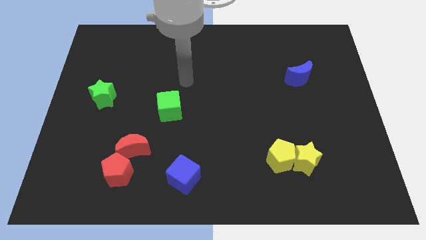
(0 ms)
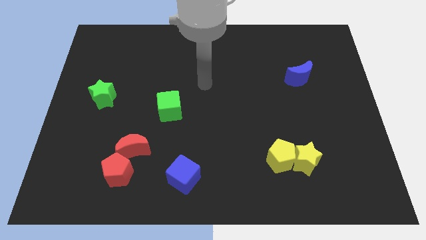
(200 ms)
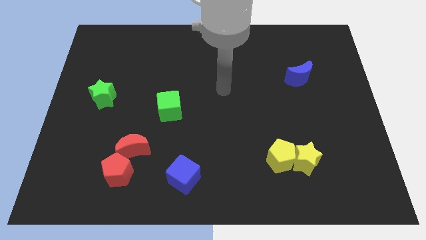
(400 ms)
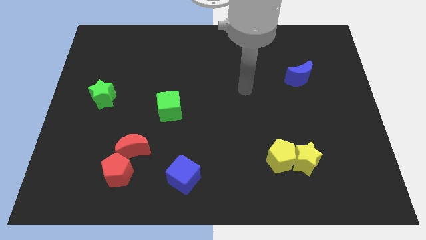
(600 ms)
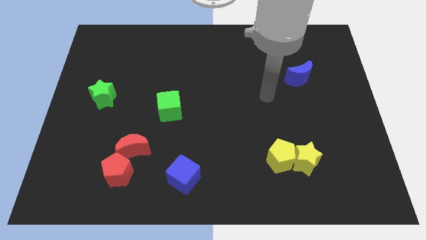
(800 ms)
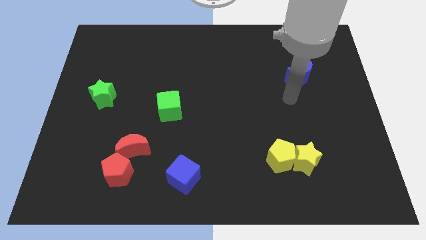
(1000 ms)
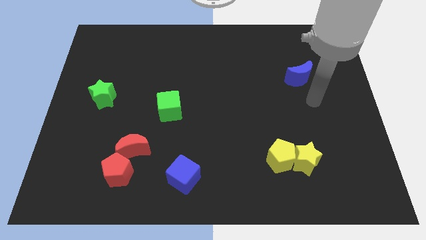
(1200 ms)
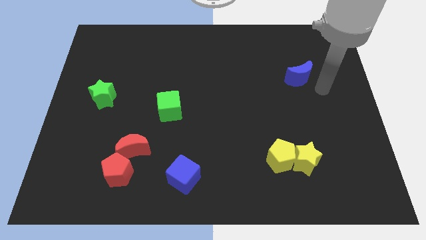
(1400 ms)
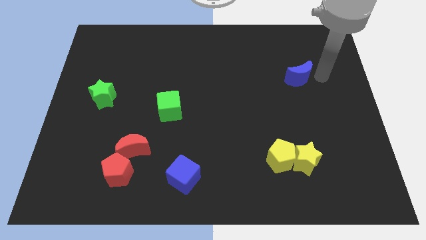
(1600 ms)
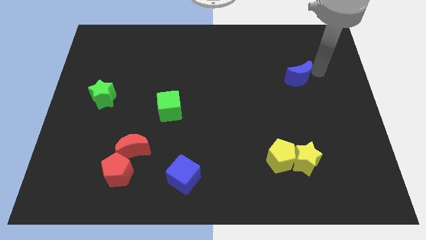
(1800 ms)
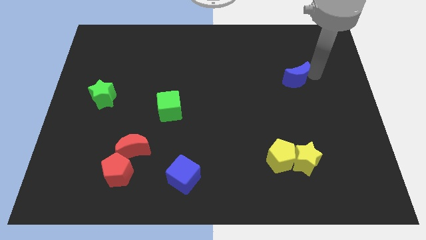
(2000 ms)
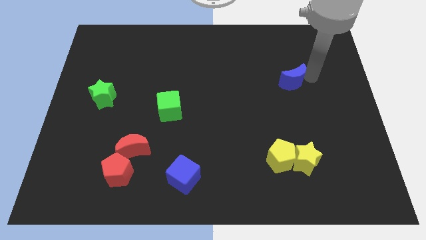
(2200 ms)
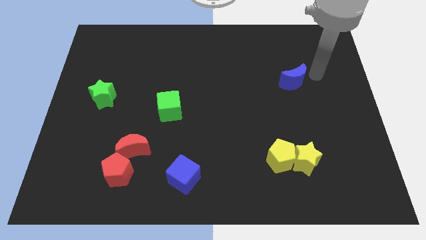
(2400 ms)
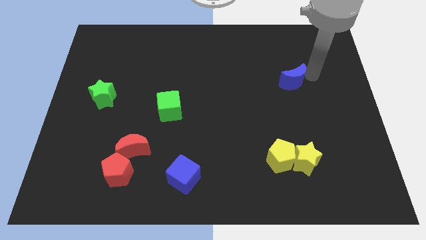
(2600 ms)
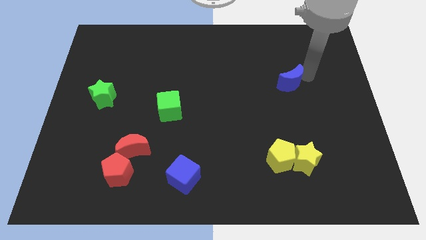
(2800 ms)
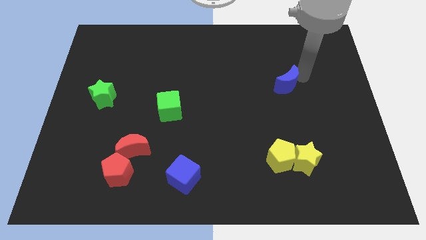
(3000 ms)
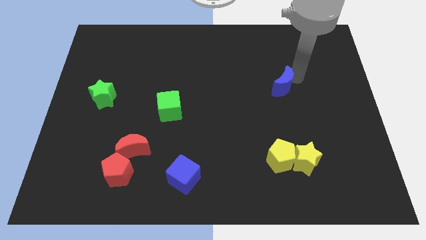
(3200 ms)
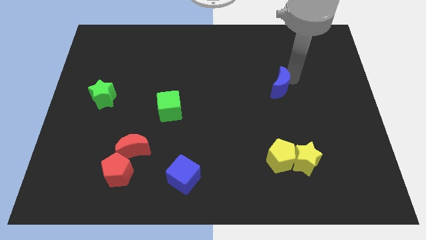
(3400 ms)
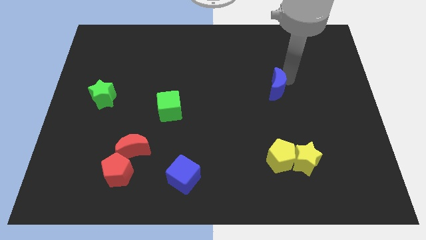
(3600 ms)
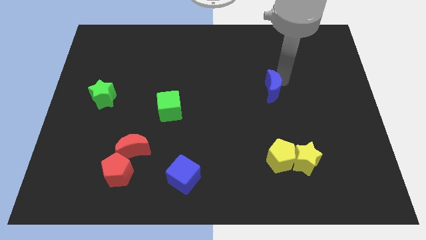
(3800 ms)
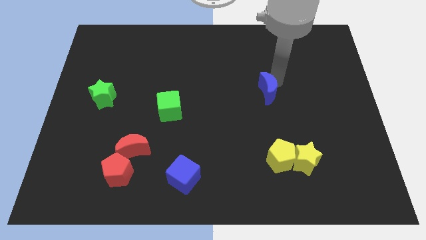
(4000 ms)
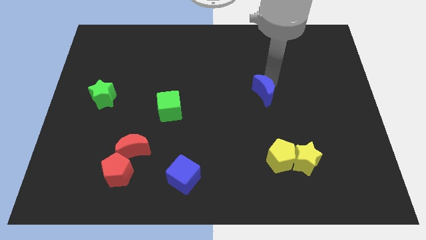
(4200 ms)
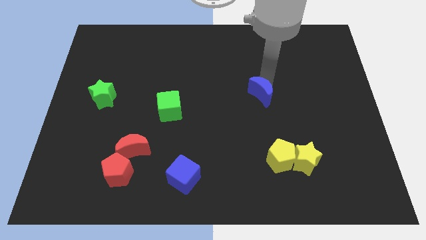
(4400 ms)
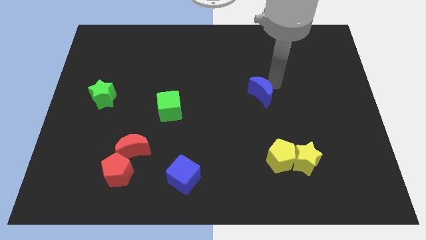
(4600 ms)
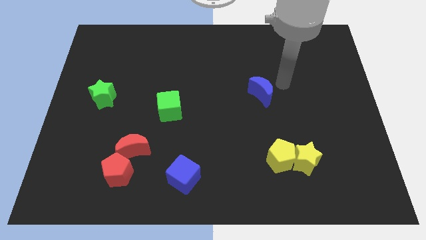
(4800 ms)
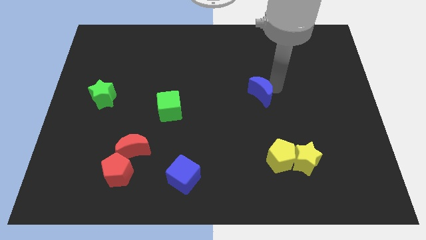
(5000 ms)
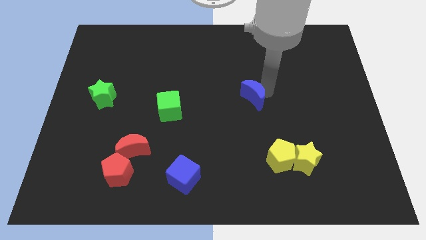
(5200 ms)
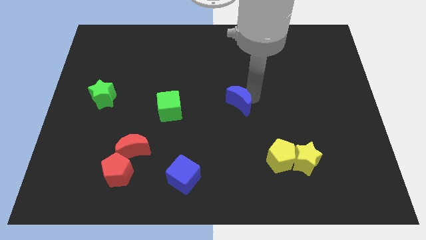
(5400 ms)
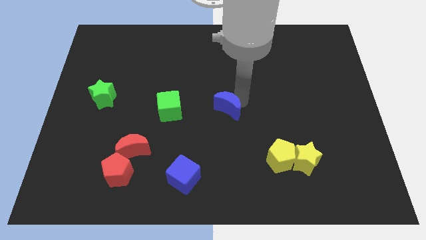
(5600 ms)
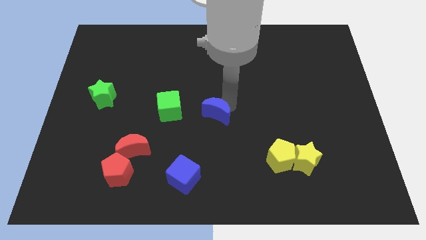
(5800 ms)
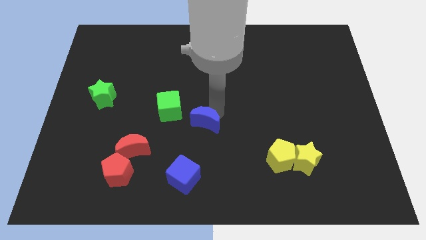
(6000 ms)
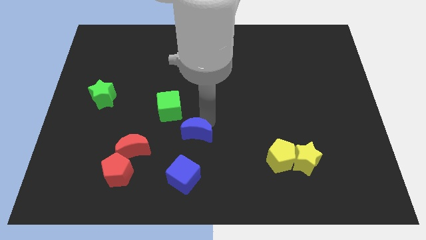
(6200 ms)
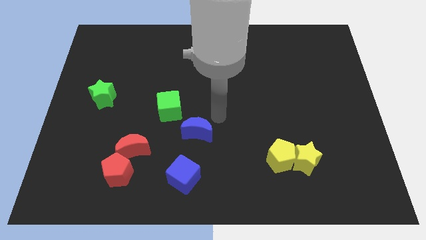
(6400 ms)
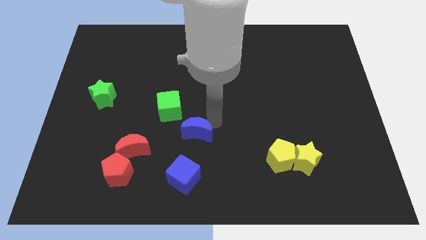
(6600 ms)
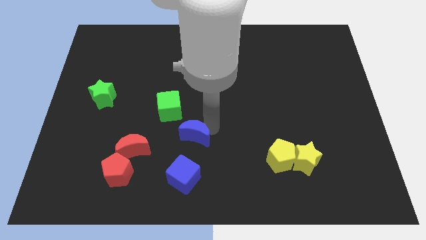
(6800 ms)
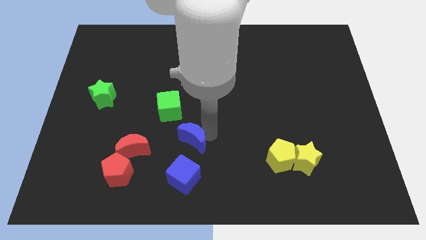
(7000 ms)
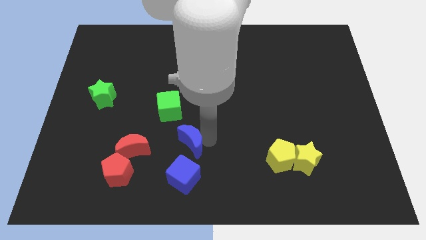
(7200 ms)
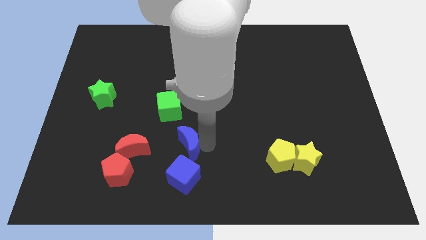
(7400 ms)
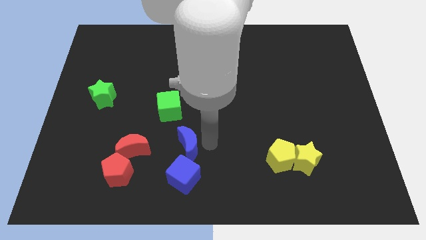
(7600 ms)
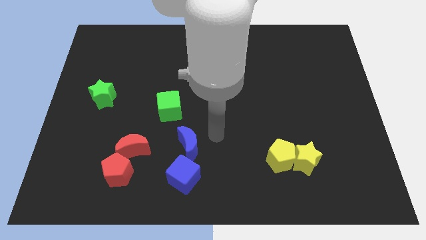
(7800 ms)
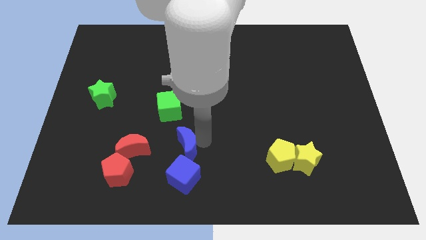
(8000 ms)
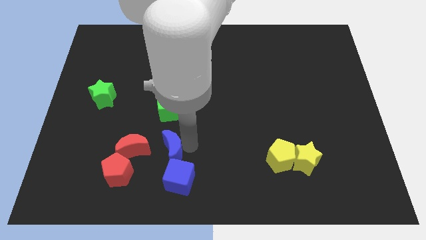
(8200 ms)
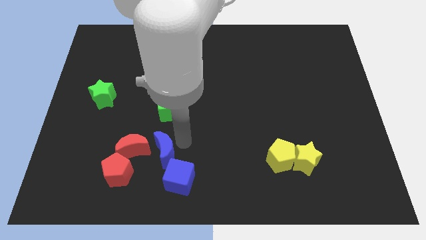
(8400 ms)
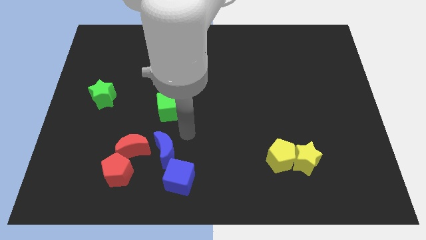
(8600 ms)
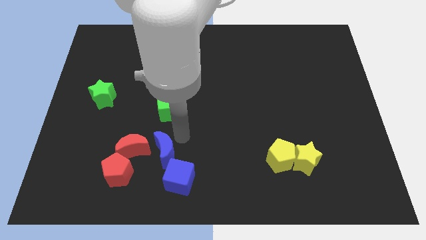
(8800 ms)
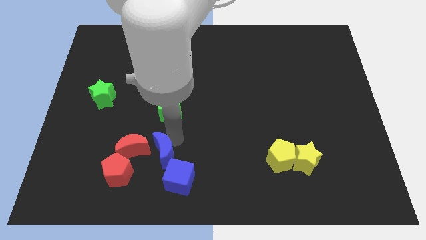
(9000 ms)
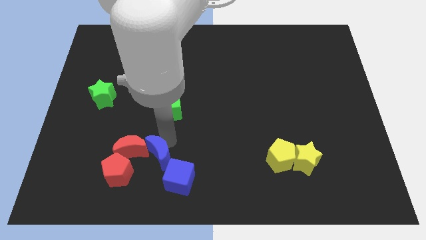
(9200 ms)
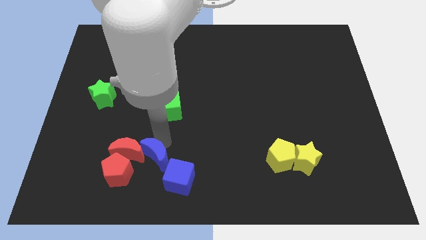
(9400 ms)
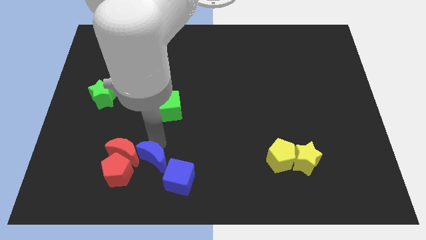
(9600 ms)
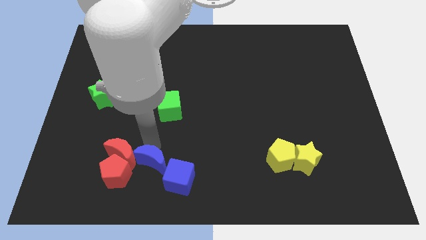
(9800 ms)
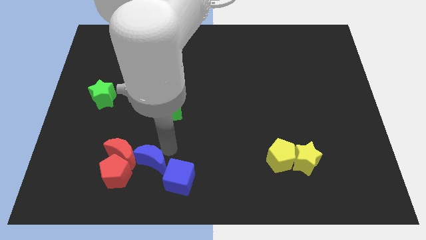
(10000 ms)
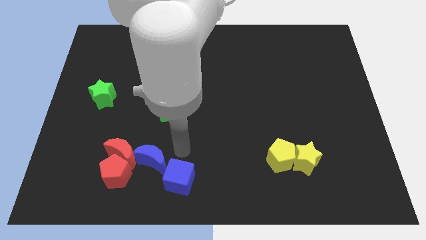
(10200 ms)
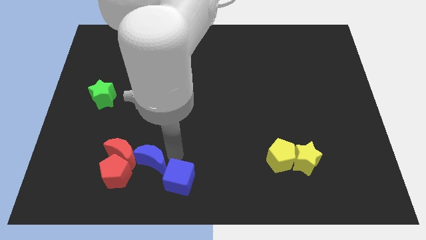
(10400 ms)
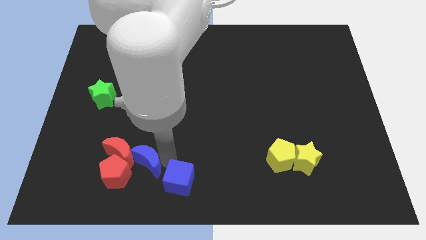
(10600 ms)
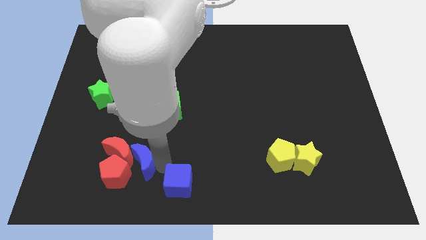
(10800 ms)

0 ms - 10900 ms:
push the blue moon close to the red pentagon

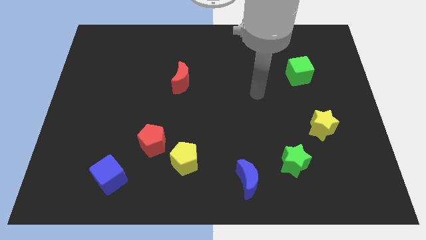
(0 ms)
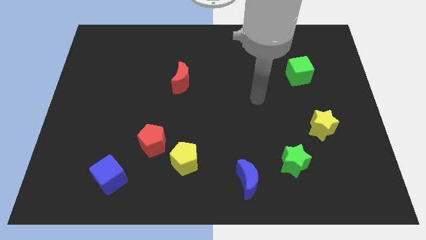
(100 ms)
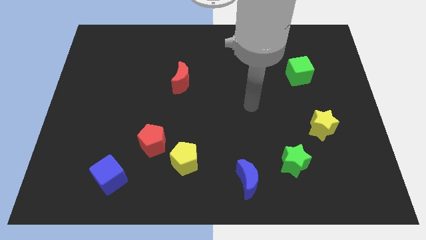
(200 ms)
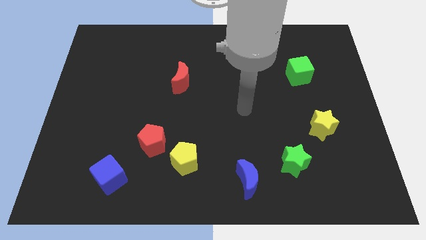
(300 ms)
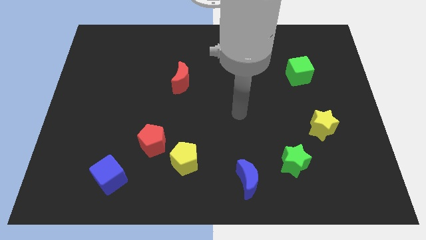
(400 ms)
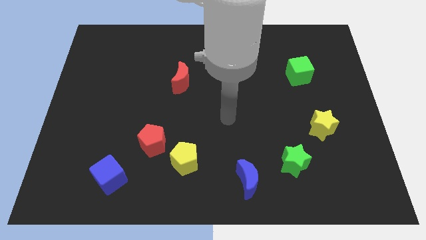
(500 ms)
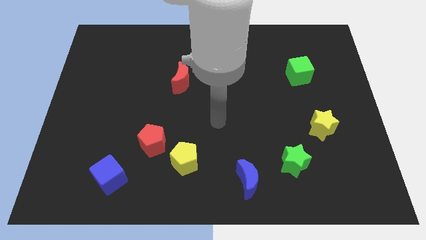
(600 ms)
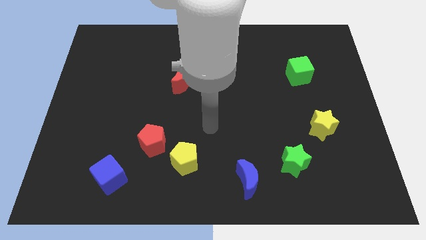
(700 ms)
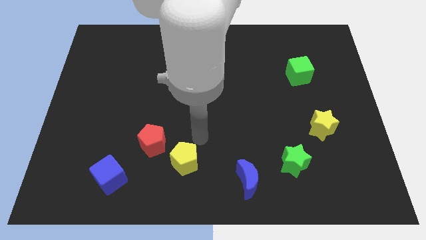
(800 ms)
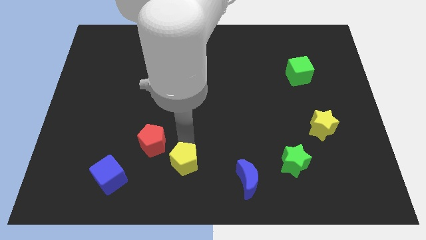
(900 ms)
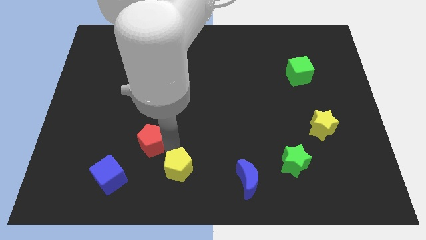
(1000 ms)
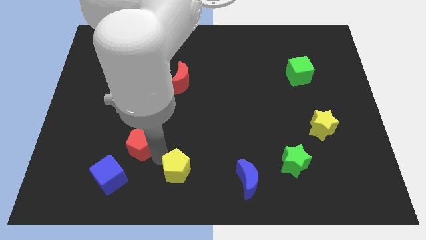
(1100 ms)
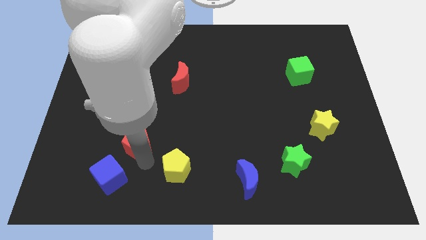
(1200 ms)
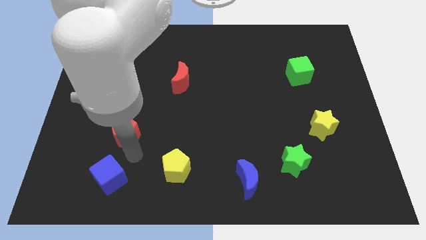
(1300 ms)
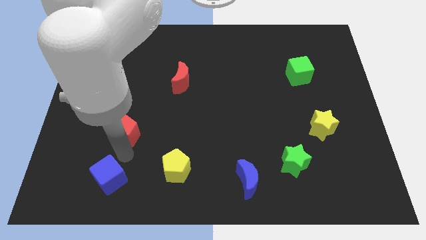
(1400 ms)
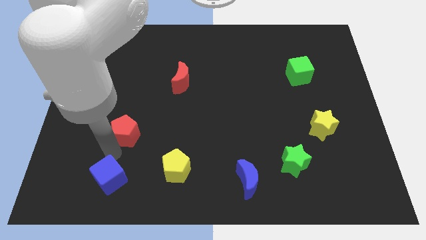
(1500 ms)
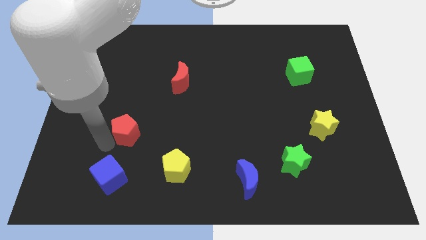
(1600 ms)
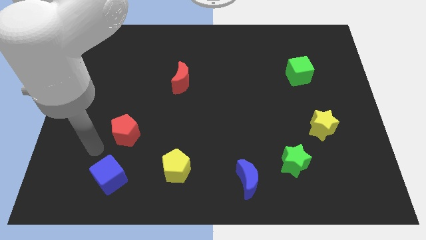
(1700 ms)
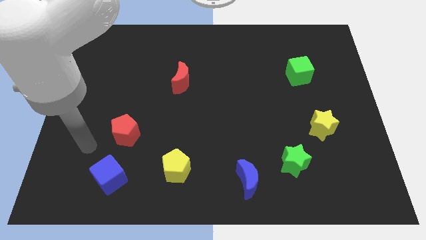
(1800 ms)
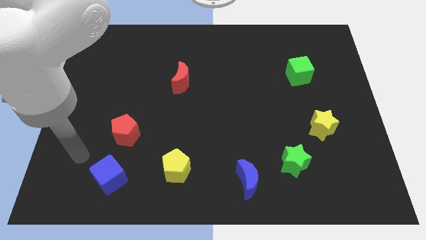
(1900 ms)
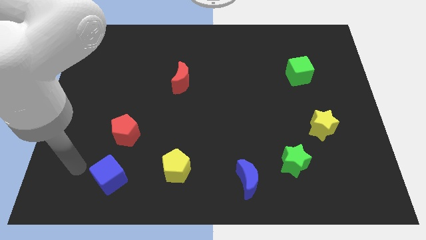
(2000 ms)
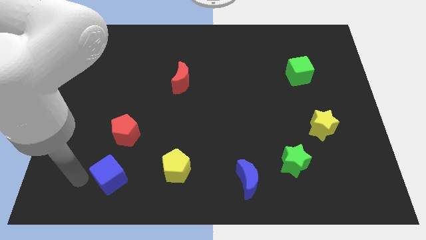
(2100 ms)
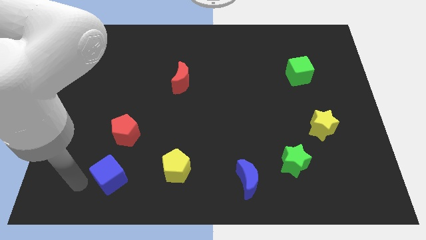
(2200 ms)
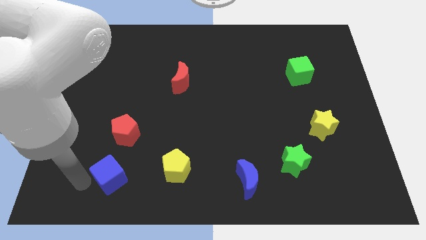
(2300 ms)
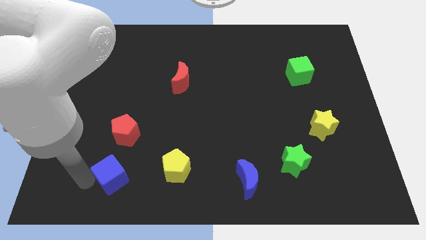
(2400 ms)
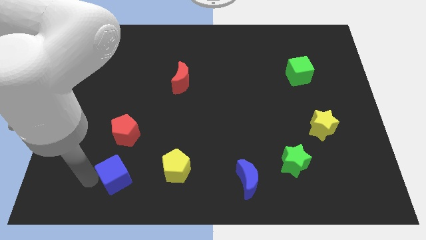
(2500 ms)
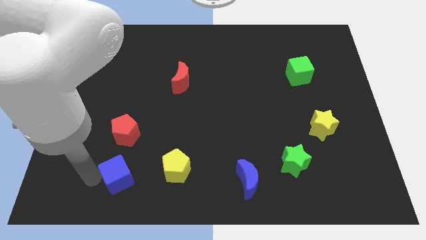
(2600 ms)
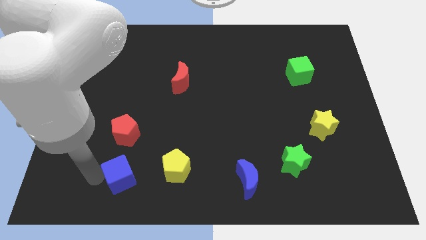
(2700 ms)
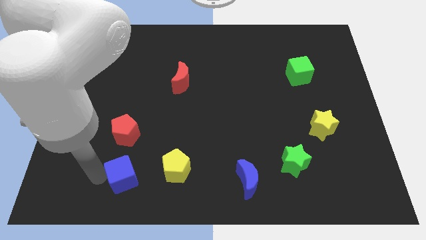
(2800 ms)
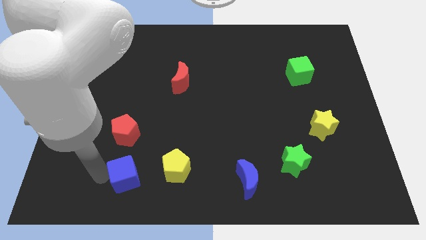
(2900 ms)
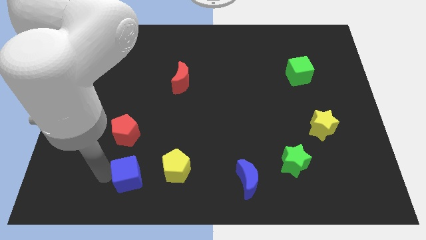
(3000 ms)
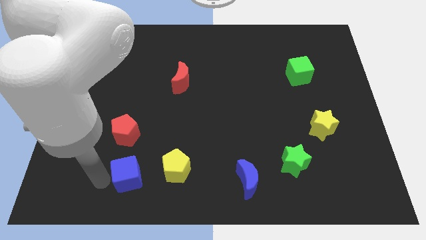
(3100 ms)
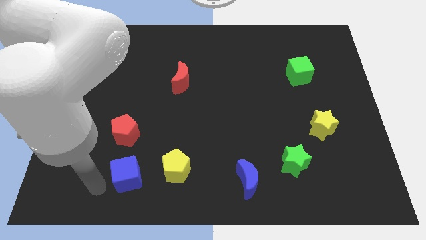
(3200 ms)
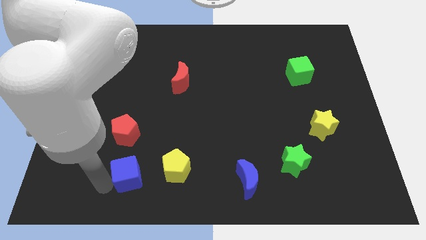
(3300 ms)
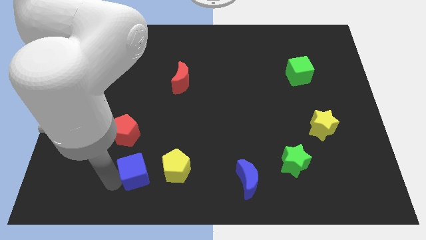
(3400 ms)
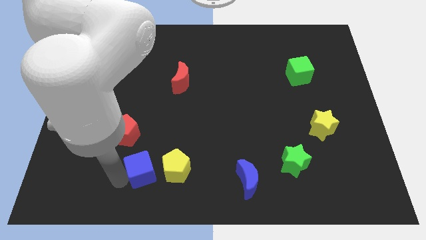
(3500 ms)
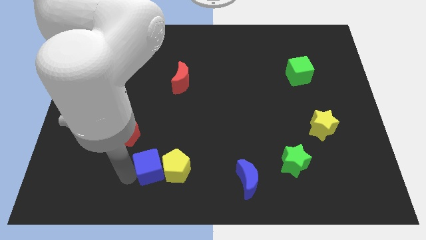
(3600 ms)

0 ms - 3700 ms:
move the blue cube towards the yellow pentagon
